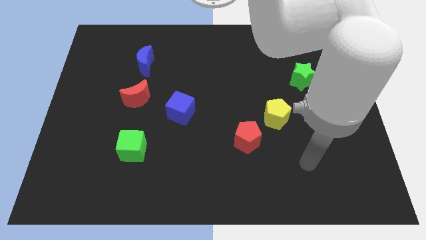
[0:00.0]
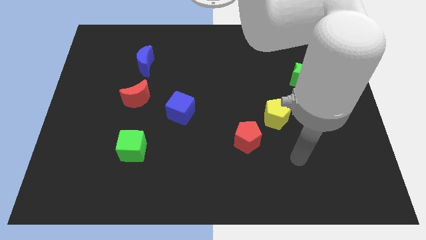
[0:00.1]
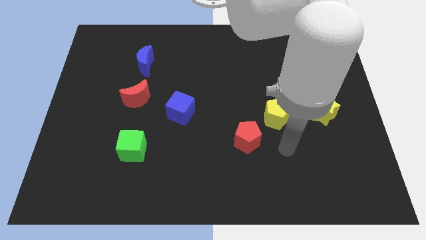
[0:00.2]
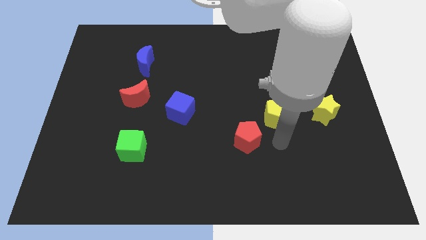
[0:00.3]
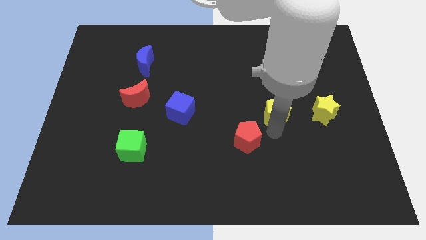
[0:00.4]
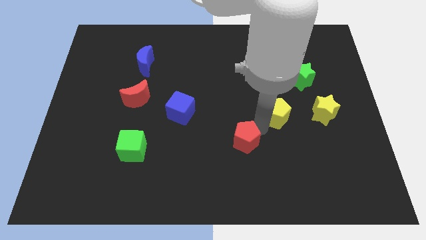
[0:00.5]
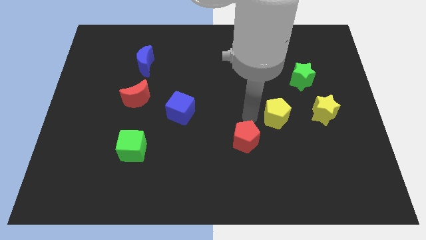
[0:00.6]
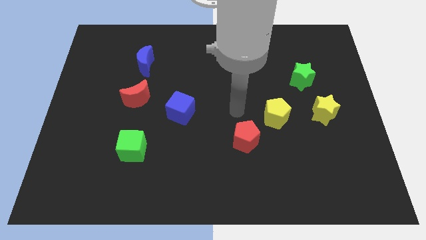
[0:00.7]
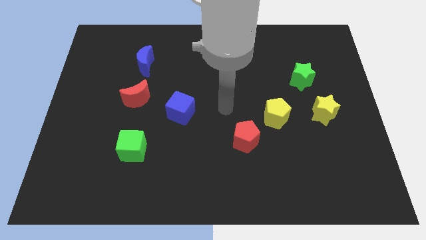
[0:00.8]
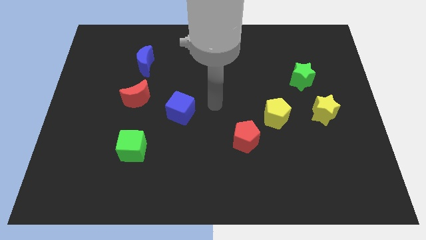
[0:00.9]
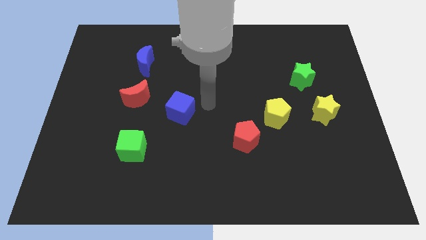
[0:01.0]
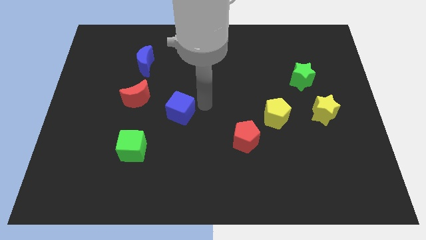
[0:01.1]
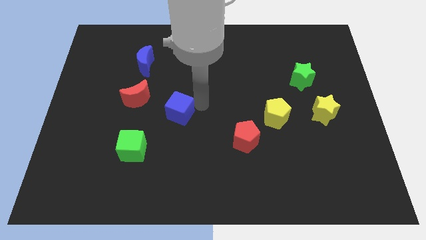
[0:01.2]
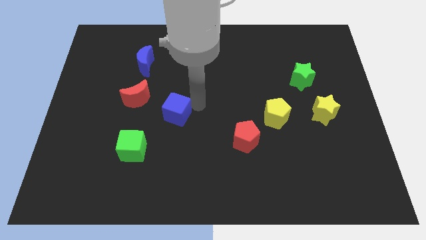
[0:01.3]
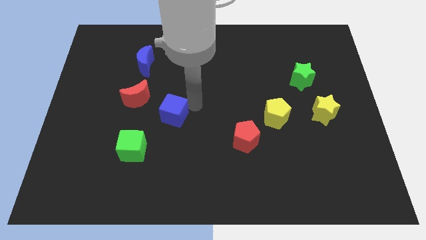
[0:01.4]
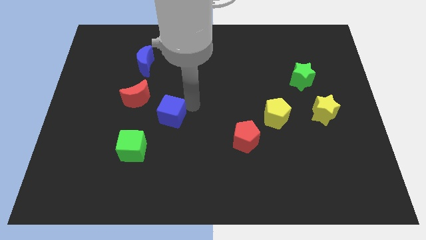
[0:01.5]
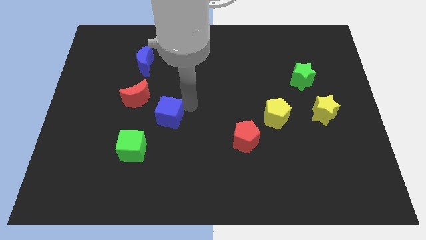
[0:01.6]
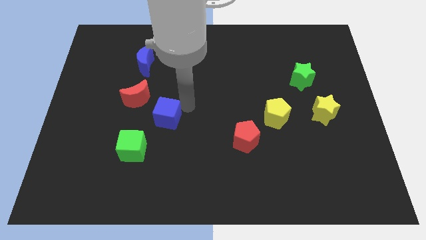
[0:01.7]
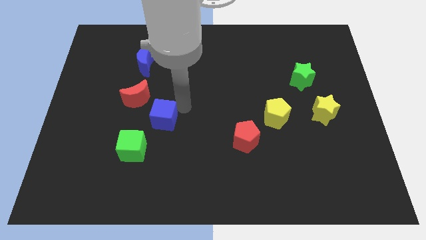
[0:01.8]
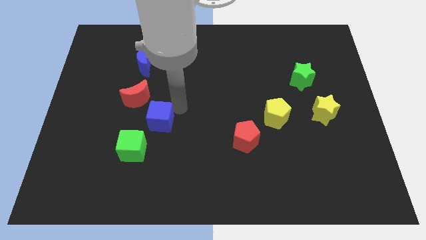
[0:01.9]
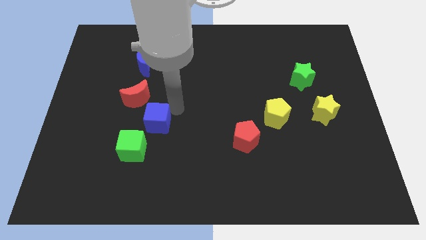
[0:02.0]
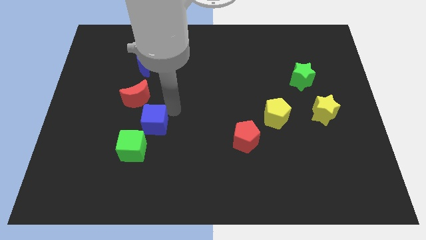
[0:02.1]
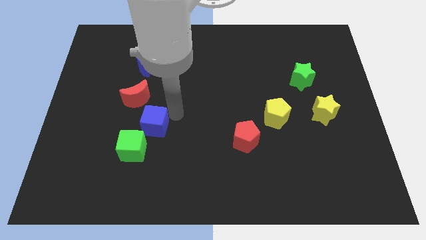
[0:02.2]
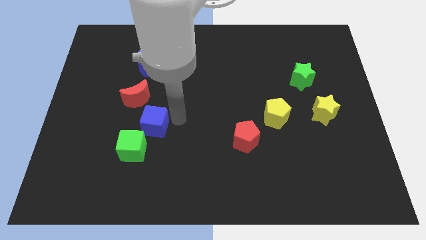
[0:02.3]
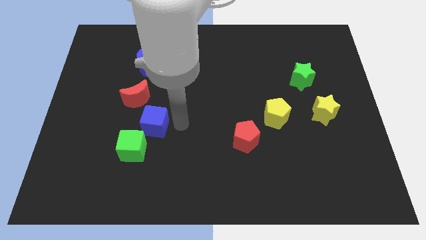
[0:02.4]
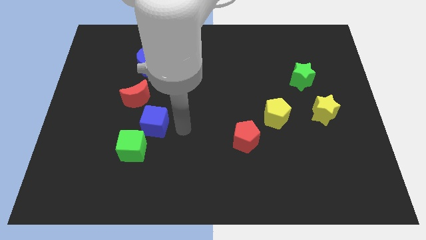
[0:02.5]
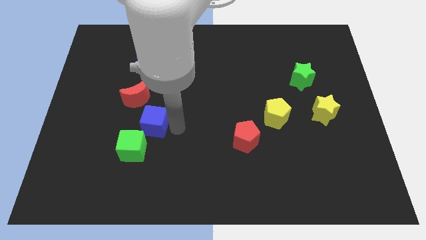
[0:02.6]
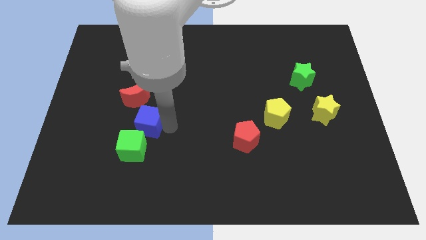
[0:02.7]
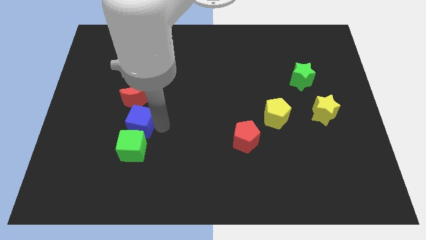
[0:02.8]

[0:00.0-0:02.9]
slide the blue cube to the left a little

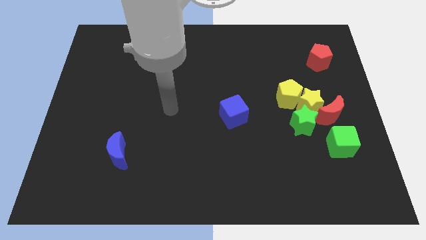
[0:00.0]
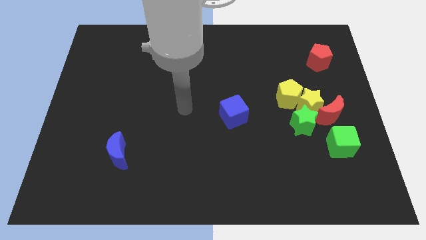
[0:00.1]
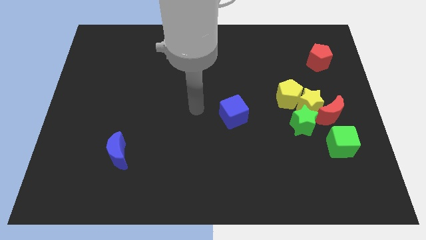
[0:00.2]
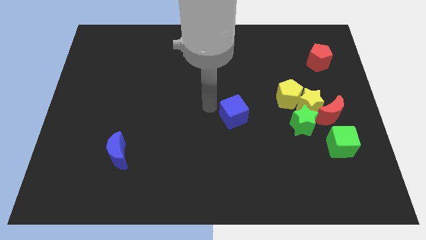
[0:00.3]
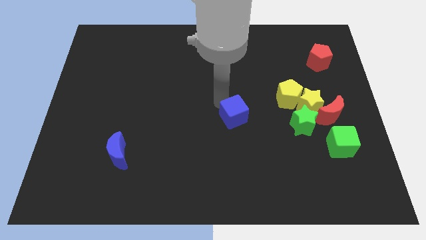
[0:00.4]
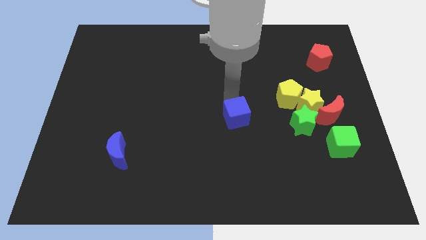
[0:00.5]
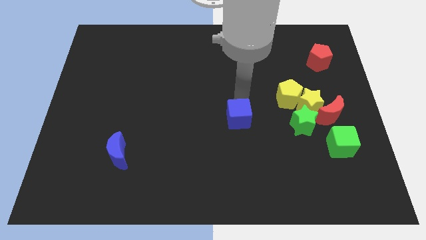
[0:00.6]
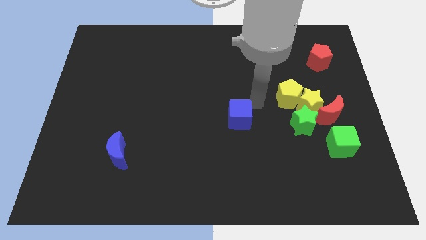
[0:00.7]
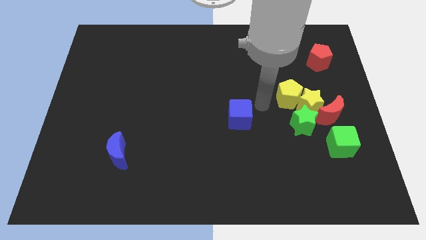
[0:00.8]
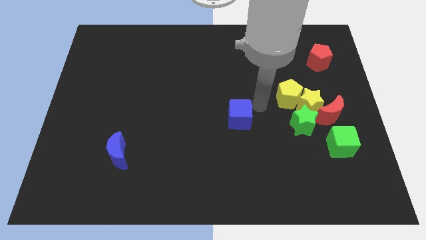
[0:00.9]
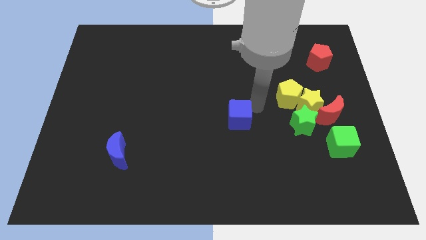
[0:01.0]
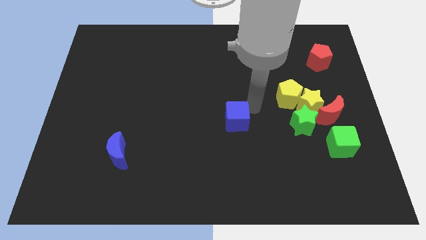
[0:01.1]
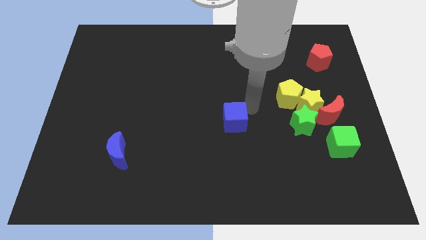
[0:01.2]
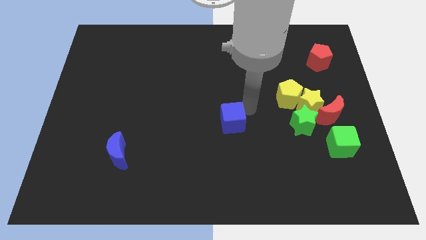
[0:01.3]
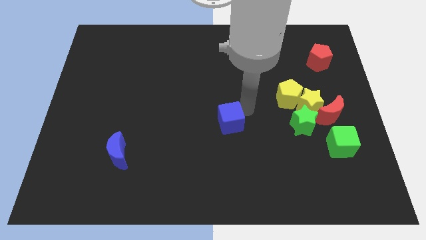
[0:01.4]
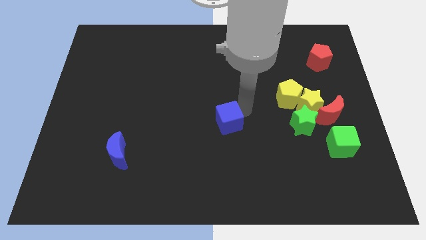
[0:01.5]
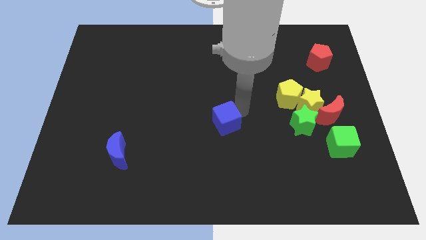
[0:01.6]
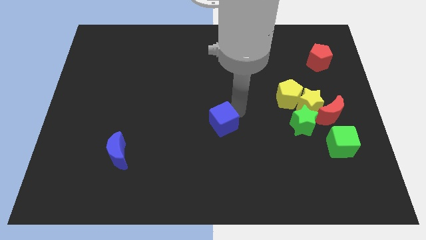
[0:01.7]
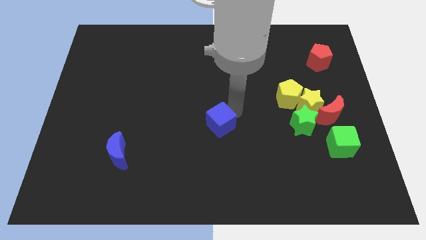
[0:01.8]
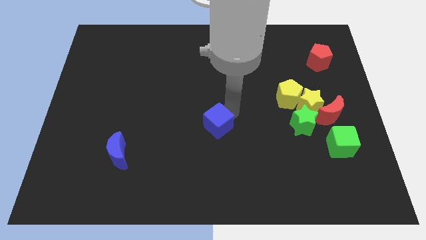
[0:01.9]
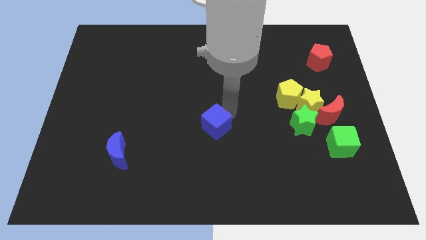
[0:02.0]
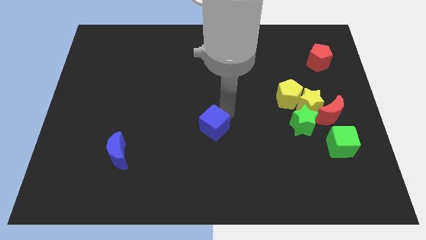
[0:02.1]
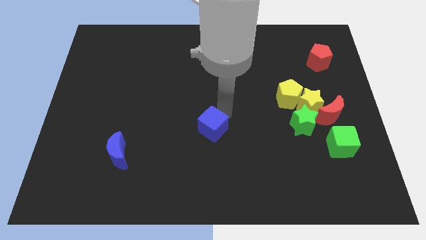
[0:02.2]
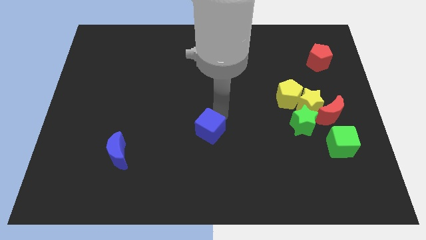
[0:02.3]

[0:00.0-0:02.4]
slightly move the blue cube down and left diagonally

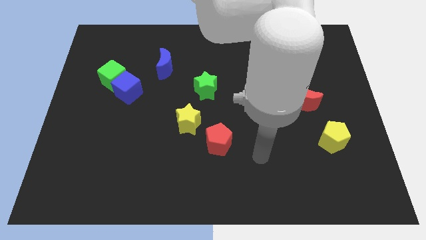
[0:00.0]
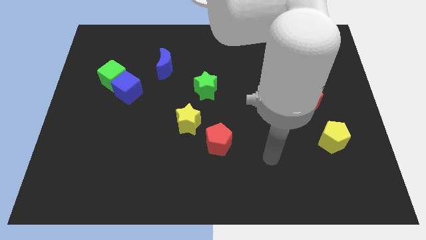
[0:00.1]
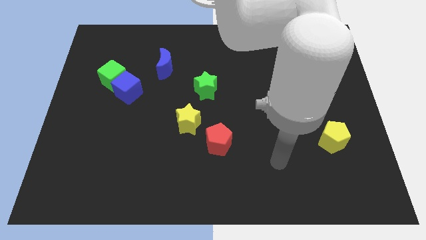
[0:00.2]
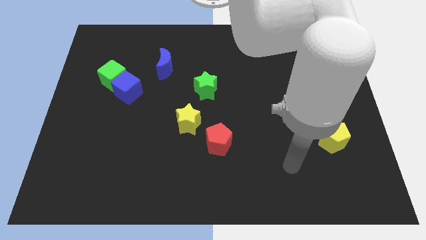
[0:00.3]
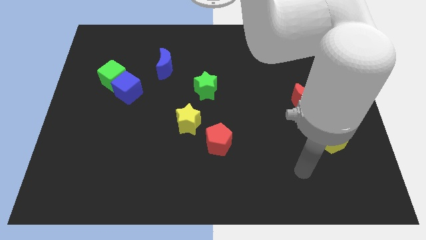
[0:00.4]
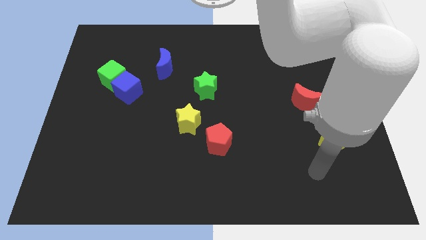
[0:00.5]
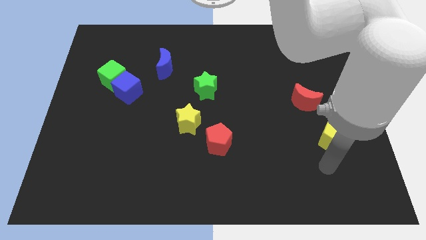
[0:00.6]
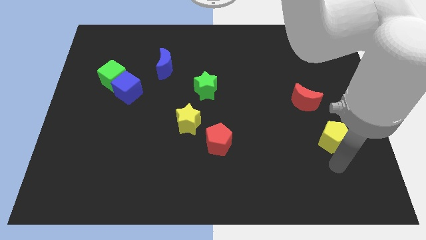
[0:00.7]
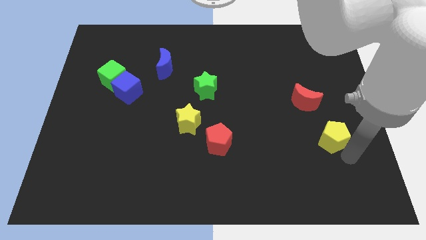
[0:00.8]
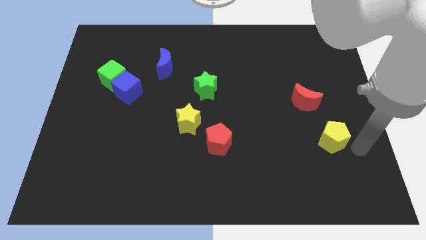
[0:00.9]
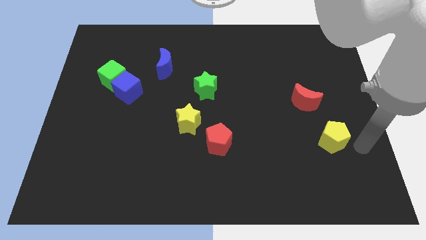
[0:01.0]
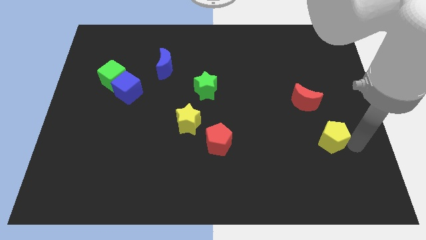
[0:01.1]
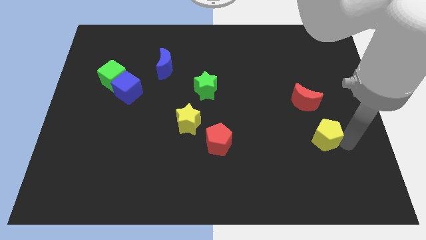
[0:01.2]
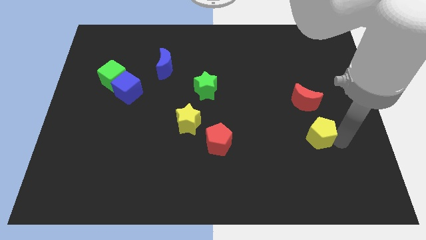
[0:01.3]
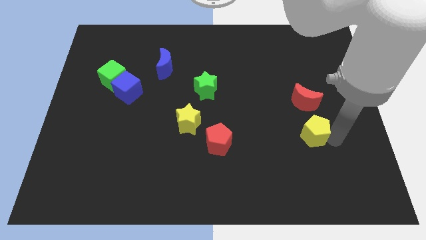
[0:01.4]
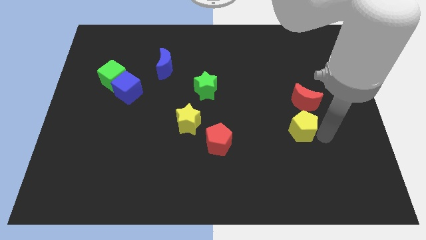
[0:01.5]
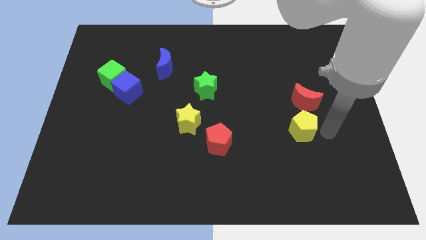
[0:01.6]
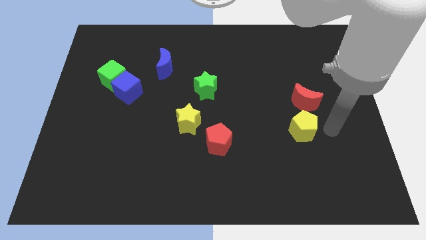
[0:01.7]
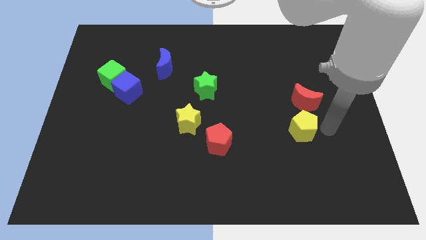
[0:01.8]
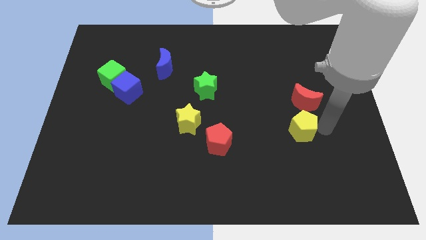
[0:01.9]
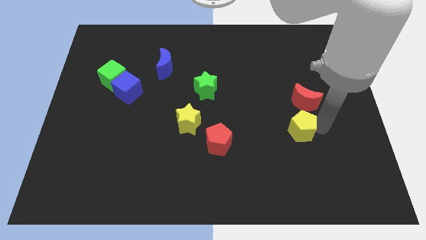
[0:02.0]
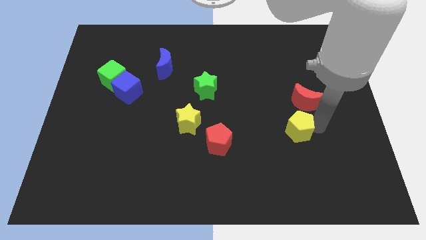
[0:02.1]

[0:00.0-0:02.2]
slightly move the yellow pentagon to the left

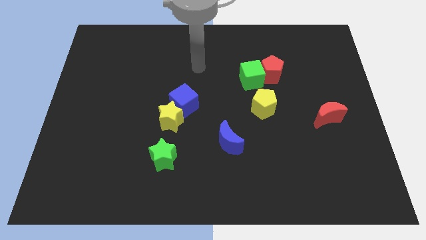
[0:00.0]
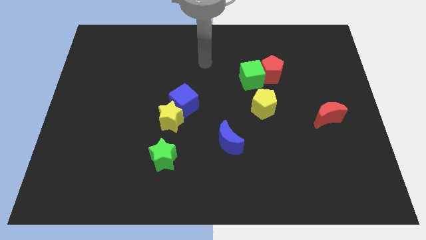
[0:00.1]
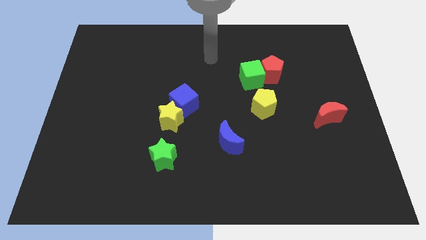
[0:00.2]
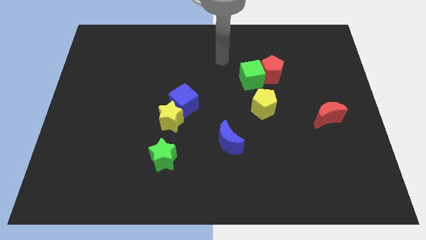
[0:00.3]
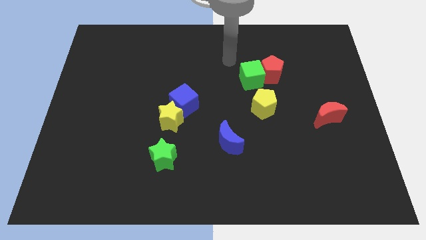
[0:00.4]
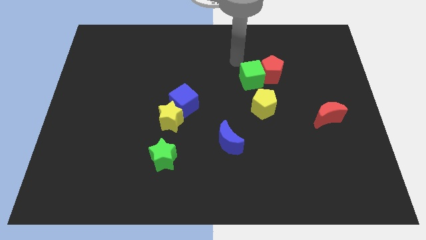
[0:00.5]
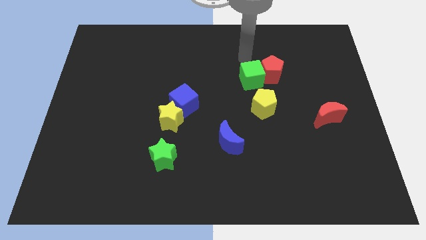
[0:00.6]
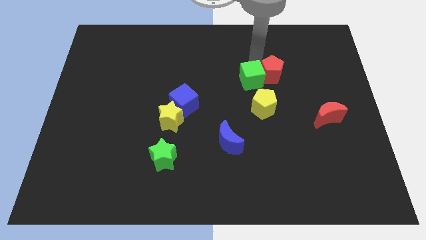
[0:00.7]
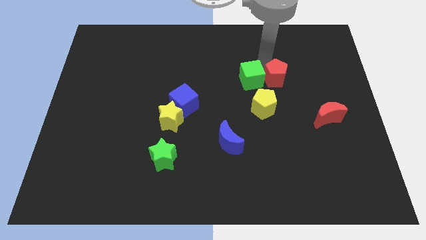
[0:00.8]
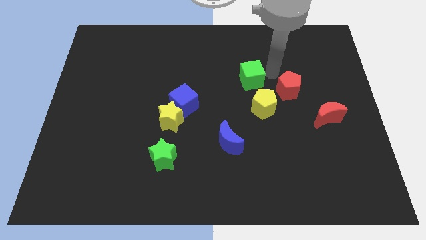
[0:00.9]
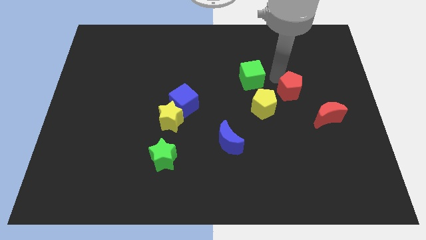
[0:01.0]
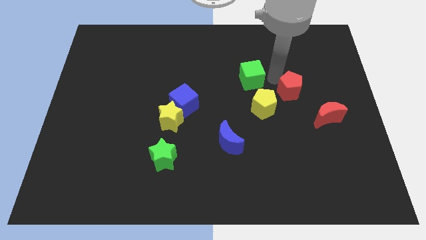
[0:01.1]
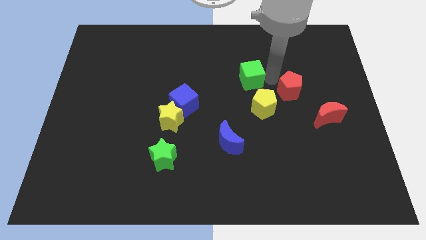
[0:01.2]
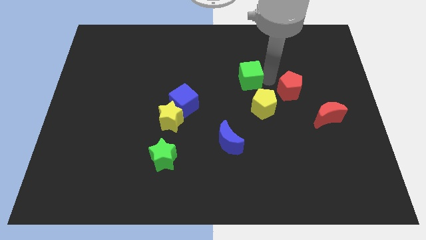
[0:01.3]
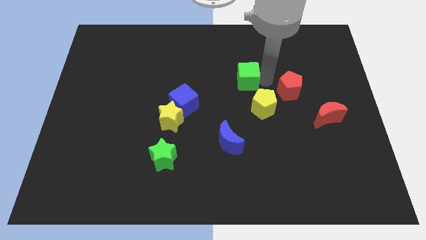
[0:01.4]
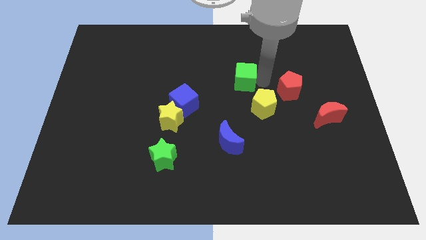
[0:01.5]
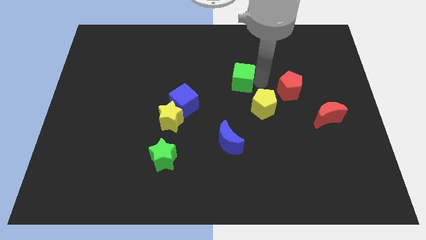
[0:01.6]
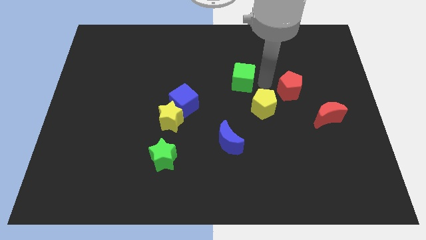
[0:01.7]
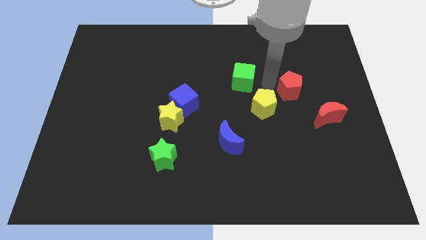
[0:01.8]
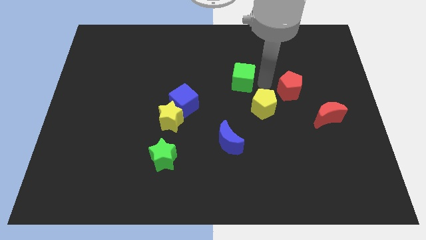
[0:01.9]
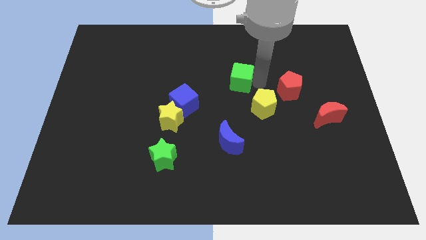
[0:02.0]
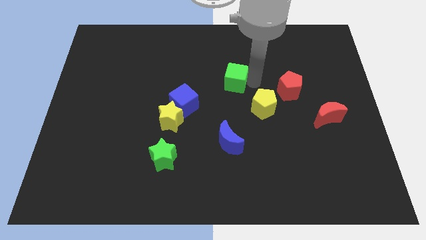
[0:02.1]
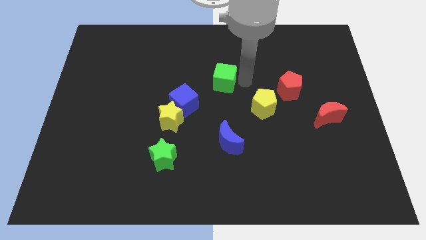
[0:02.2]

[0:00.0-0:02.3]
slightly push the green cube to the left
